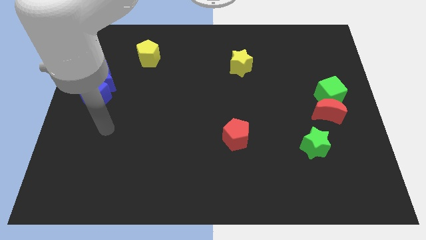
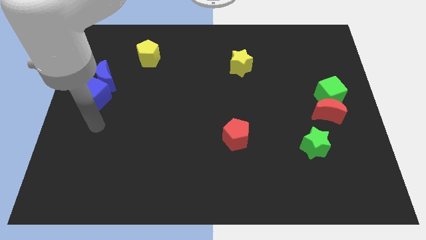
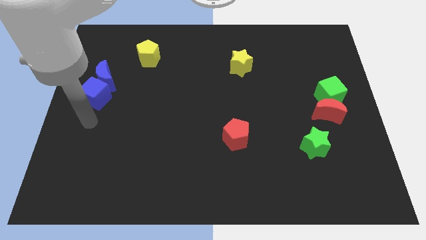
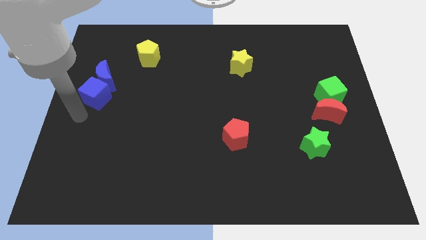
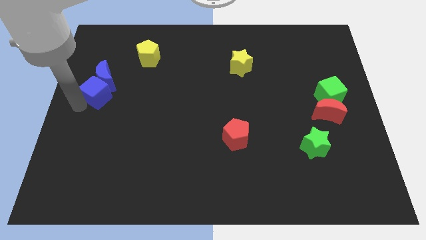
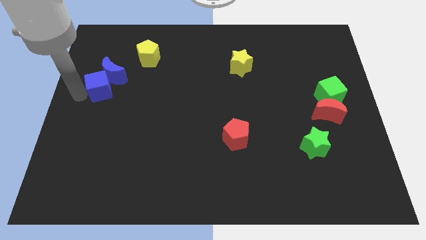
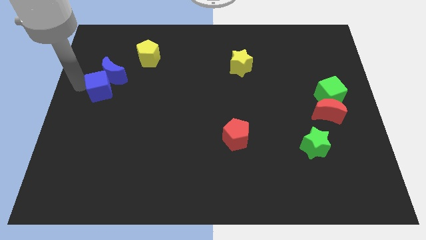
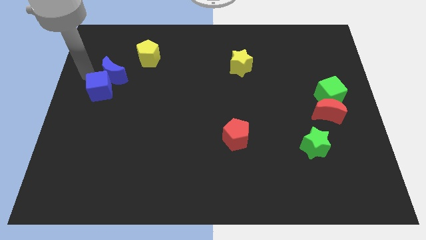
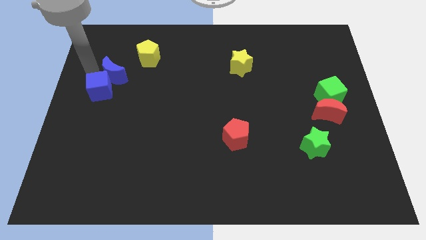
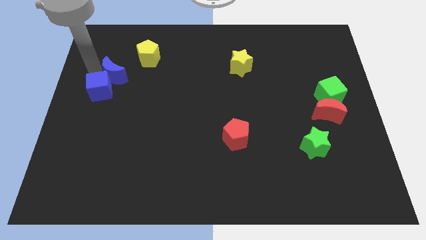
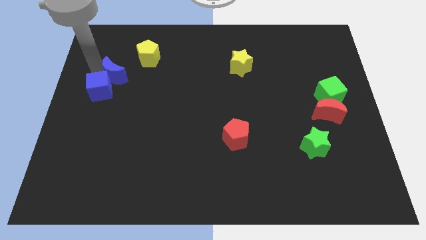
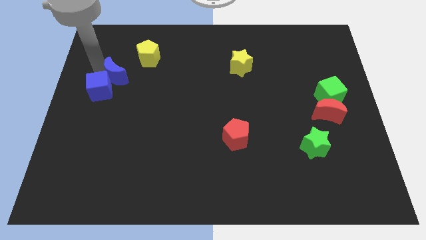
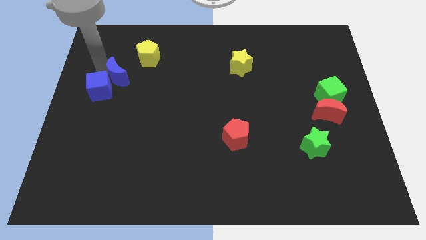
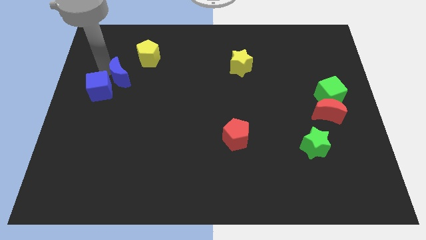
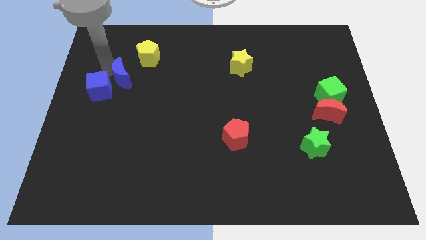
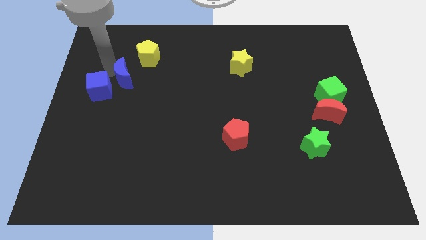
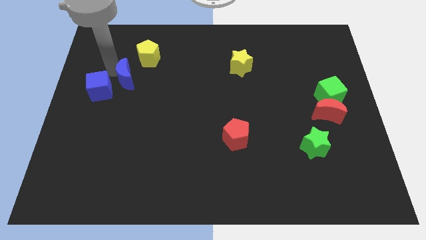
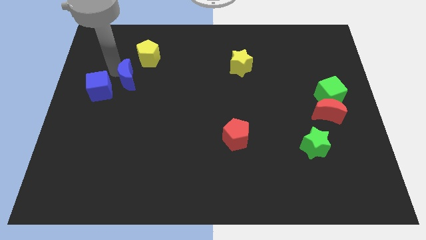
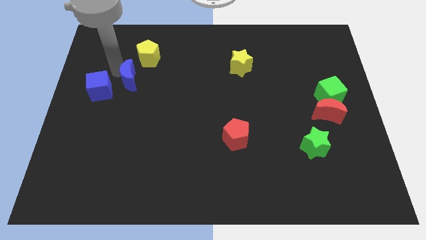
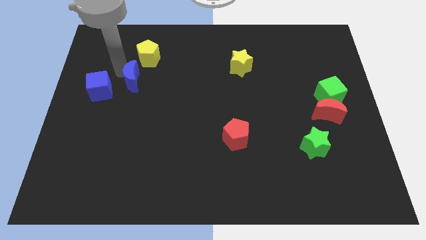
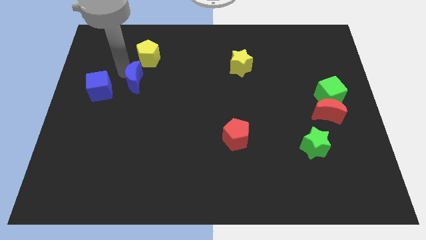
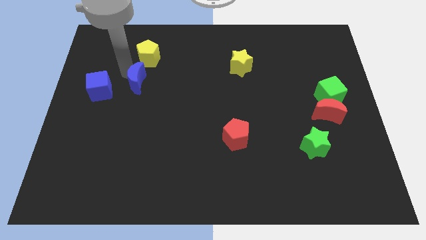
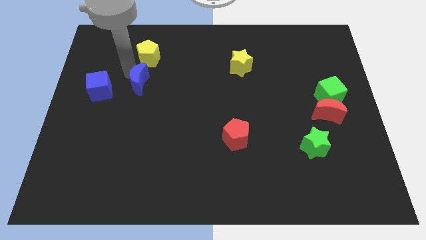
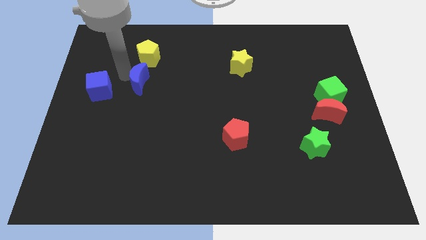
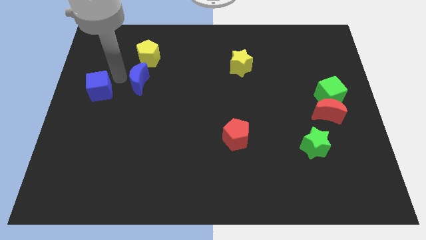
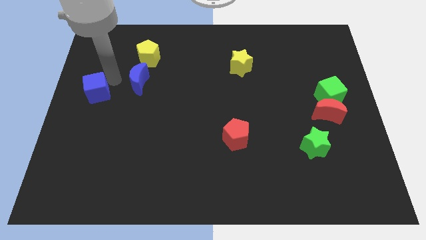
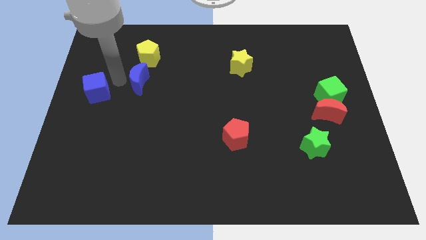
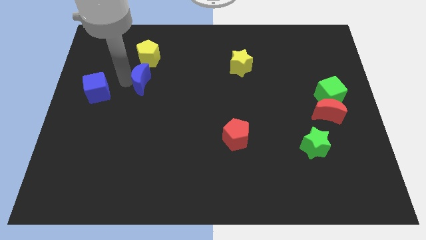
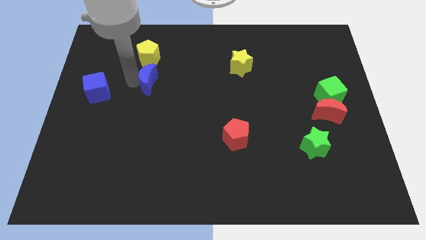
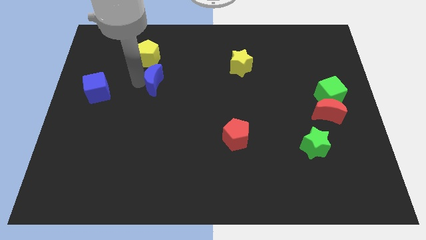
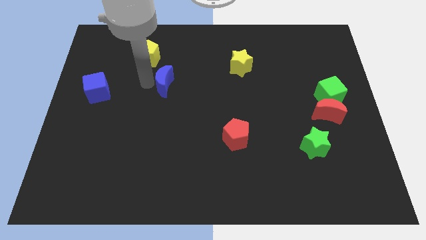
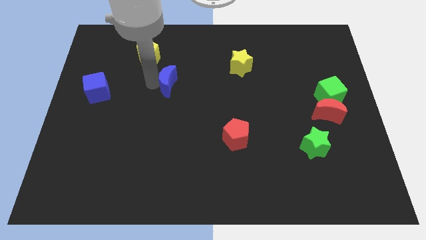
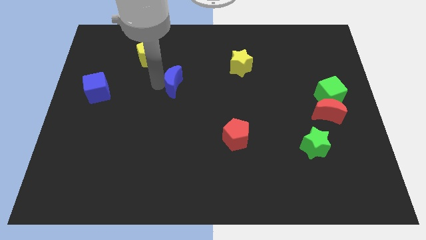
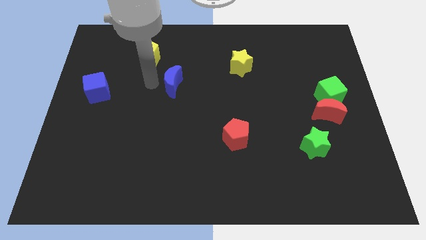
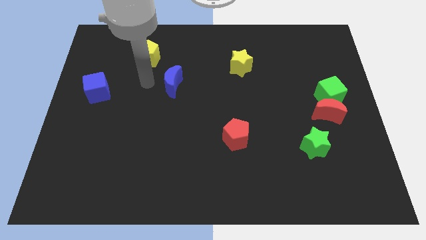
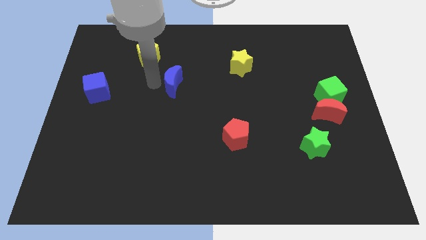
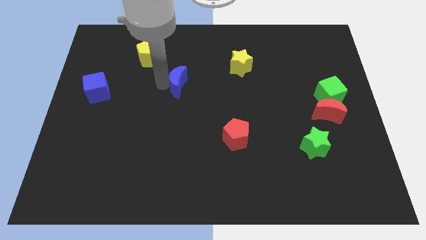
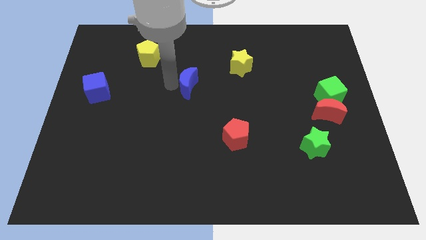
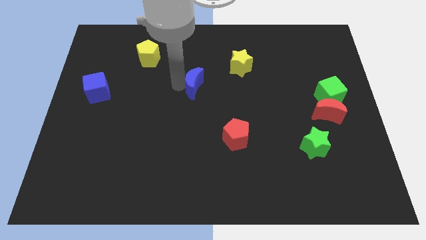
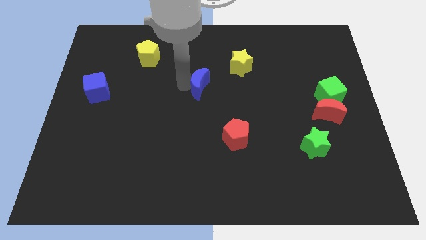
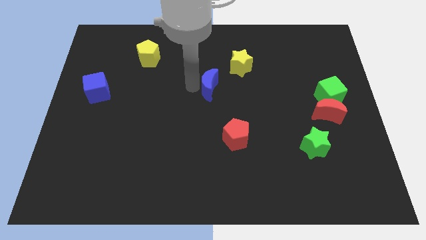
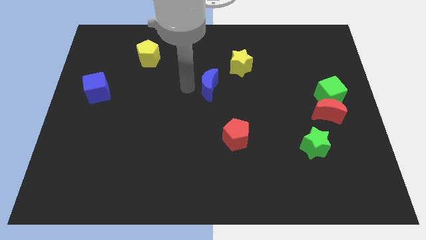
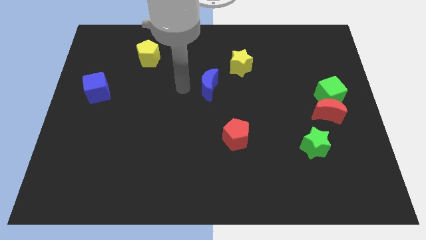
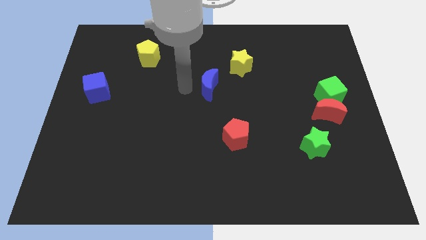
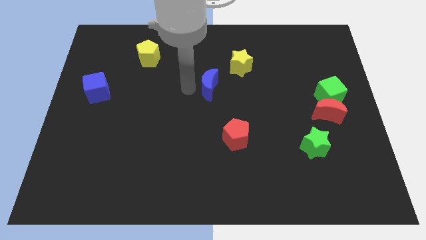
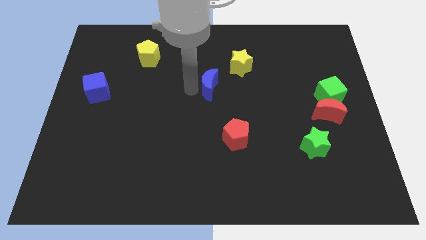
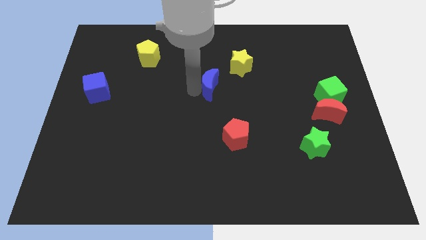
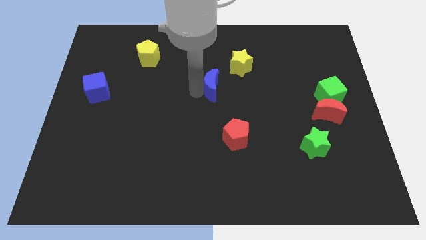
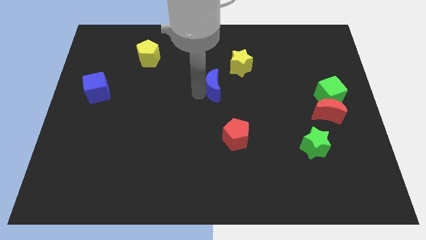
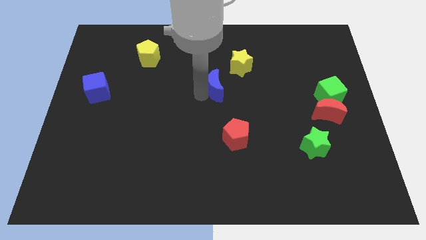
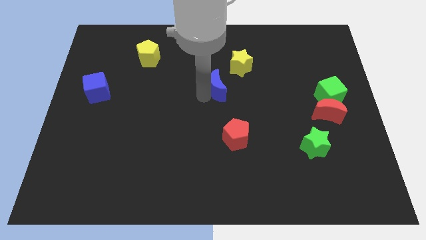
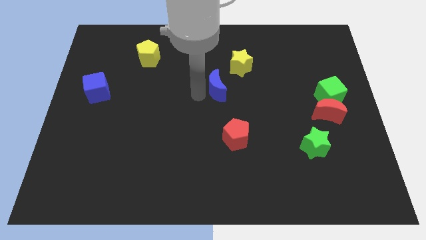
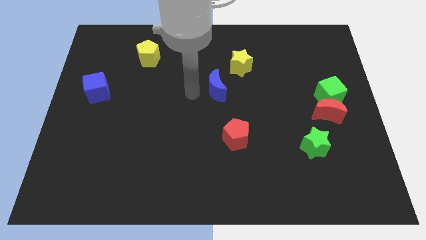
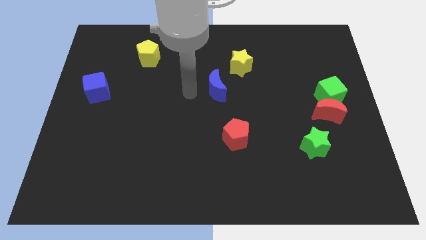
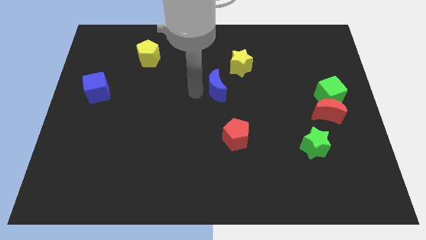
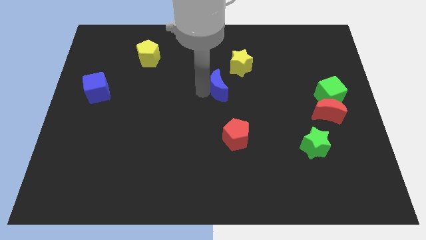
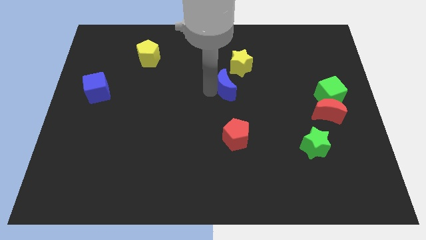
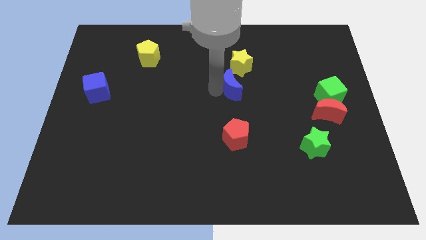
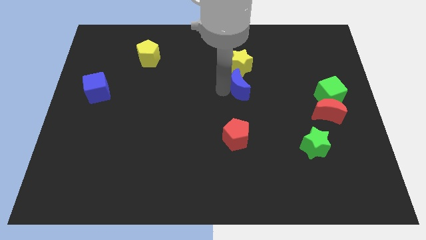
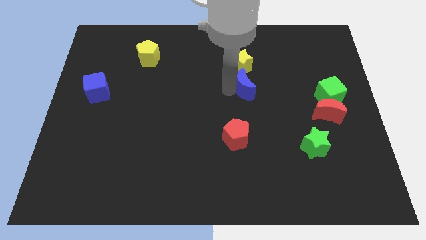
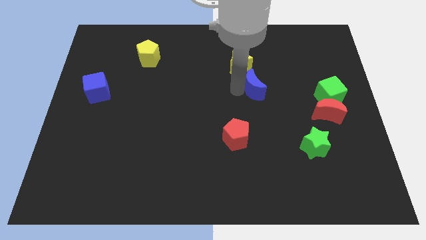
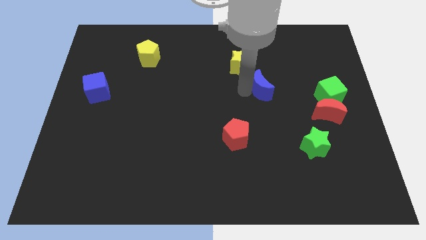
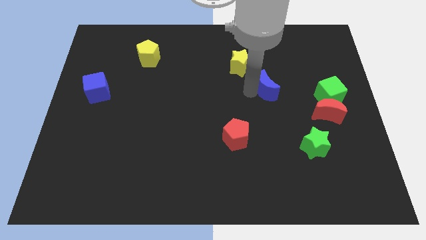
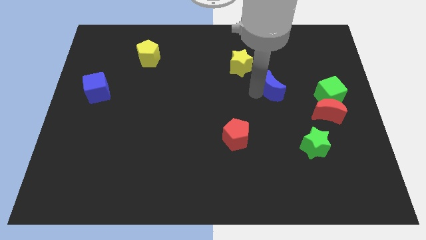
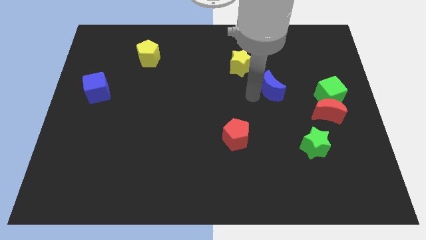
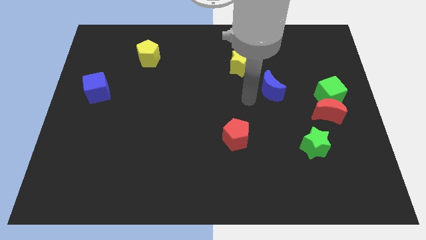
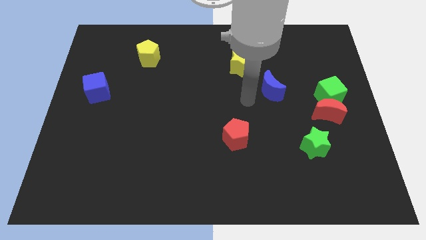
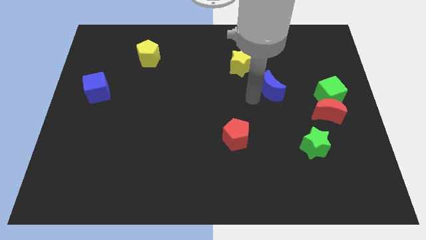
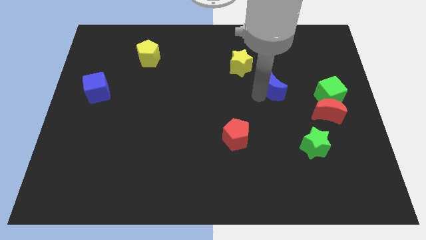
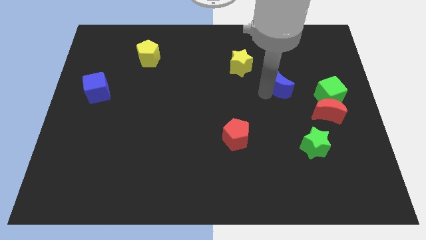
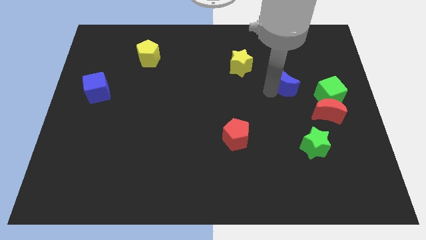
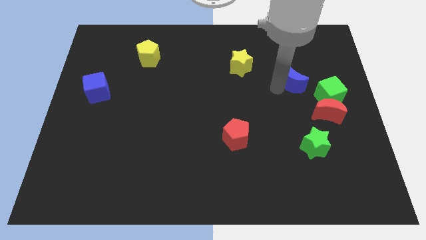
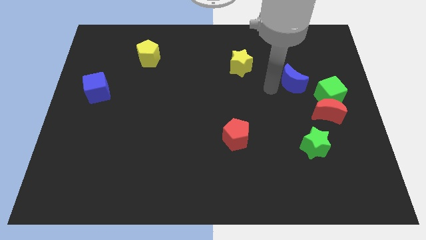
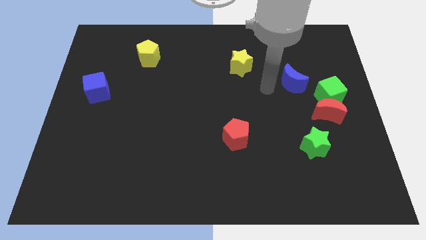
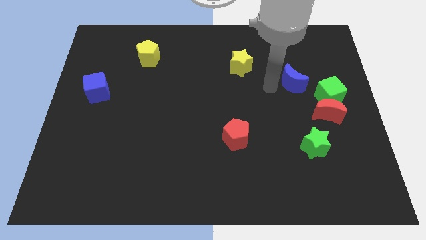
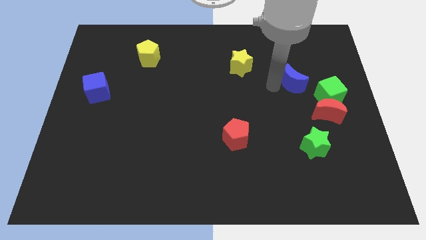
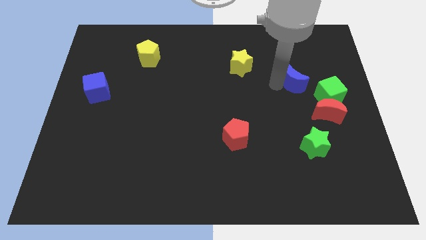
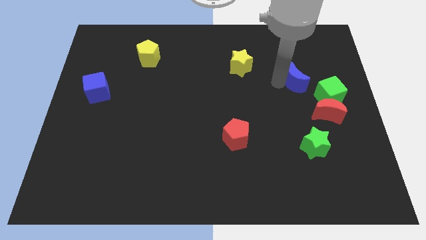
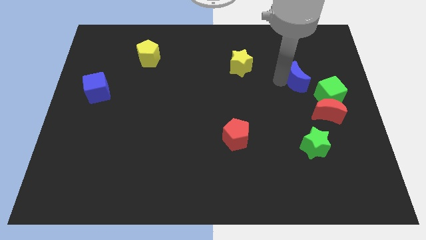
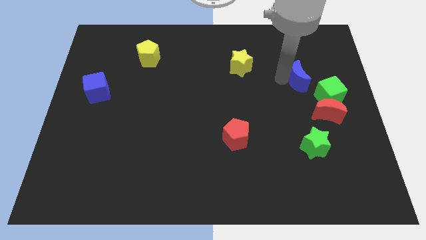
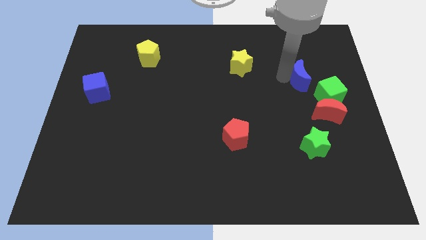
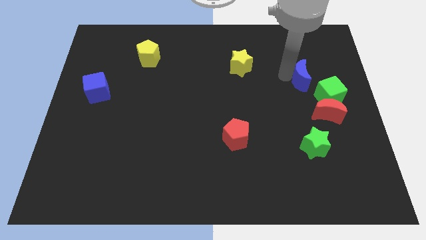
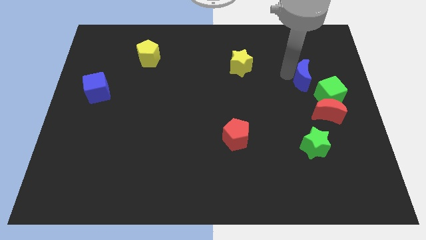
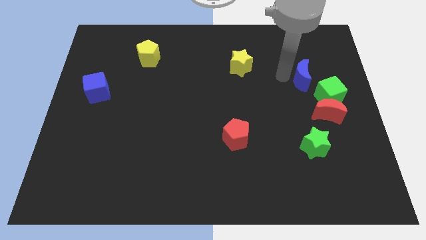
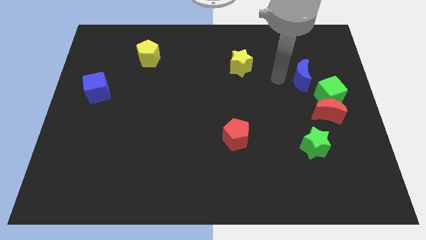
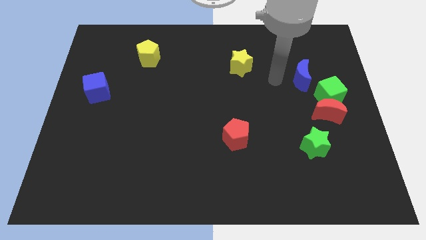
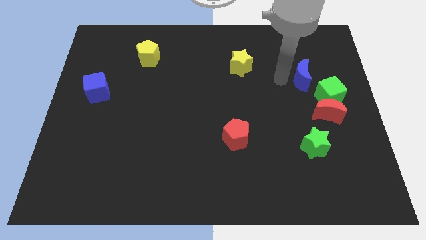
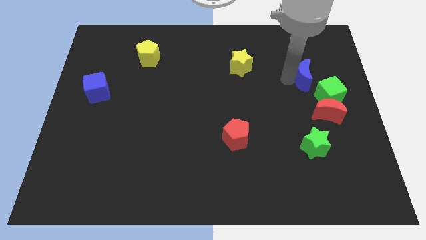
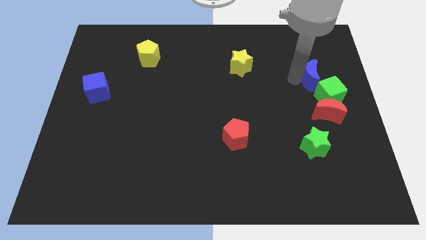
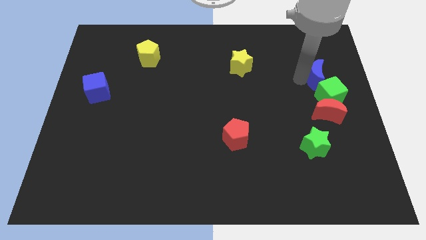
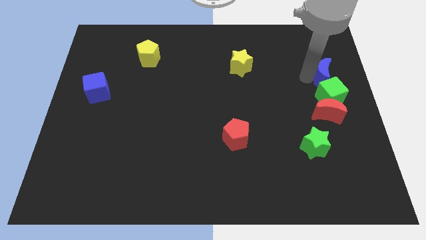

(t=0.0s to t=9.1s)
slide the blue moon to the right side
